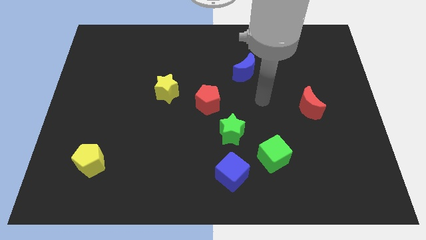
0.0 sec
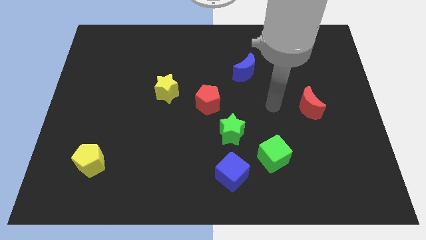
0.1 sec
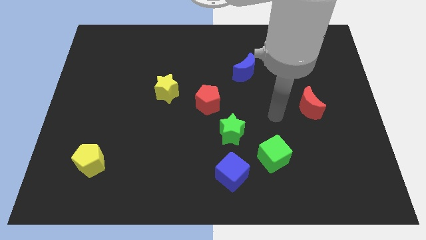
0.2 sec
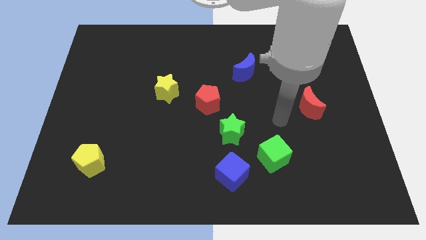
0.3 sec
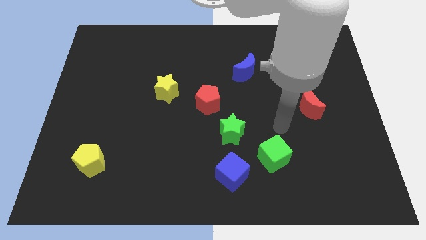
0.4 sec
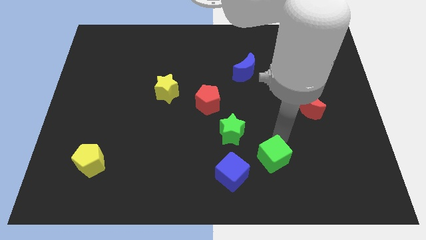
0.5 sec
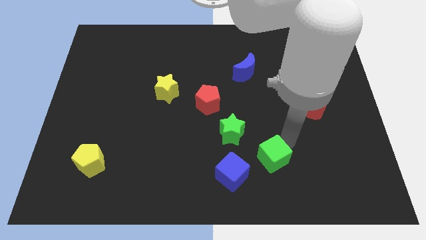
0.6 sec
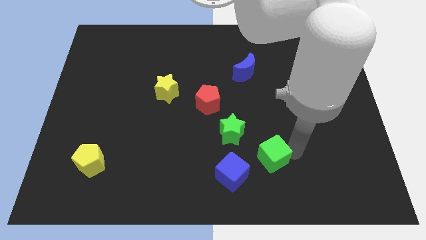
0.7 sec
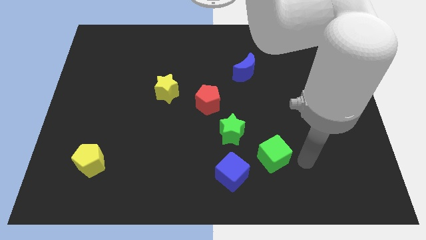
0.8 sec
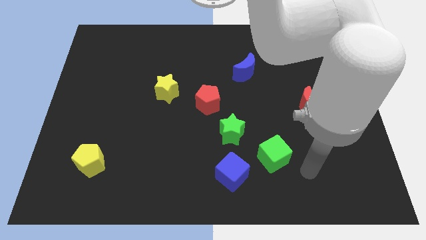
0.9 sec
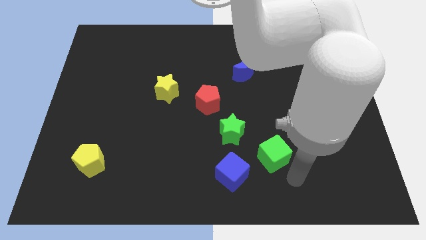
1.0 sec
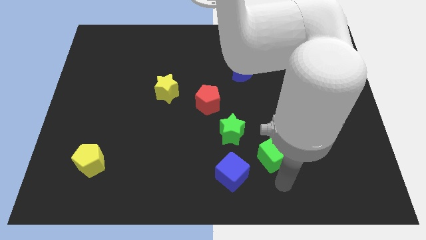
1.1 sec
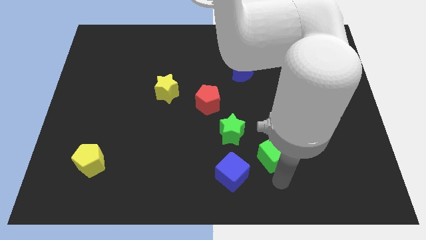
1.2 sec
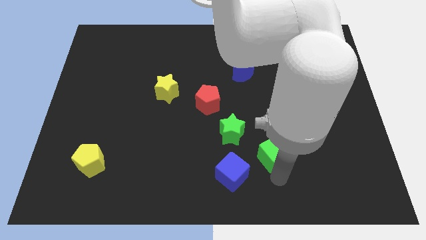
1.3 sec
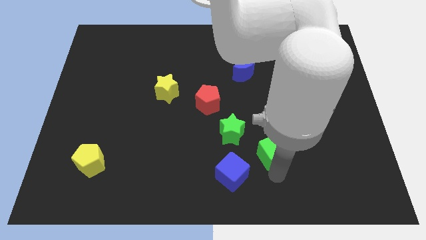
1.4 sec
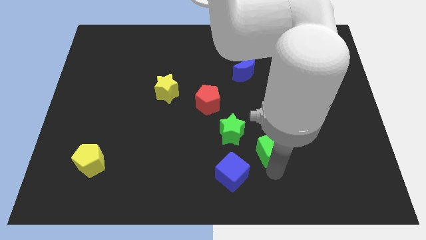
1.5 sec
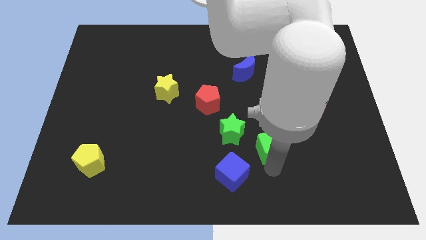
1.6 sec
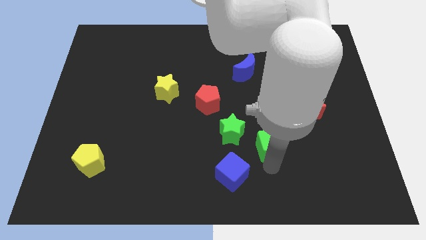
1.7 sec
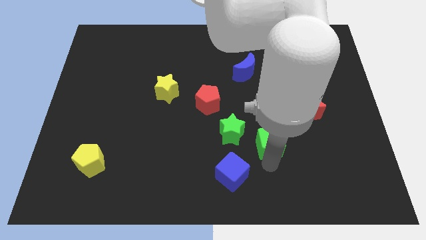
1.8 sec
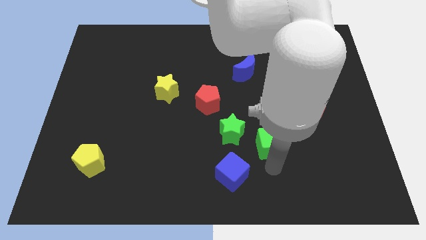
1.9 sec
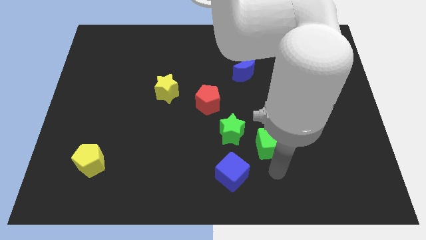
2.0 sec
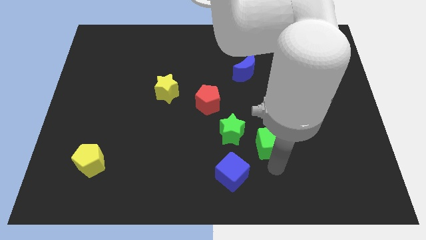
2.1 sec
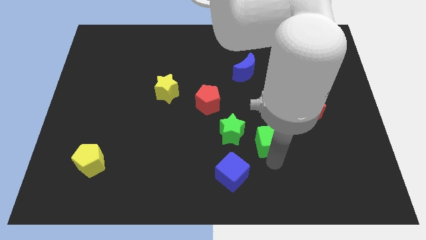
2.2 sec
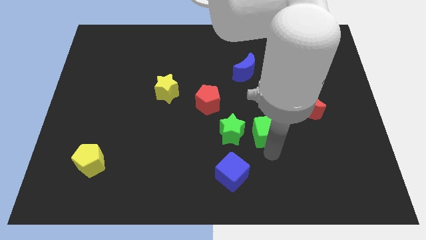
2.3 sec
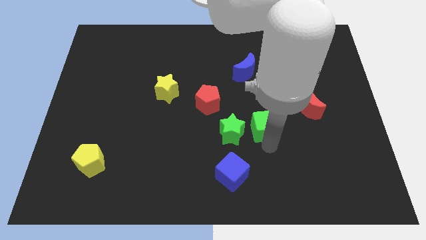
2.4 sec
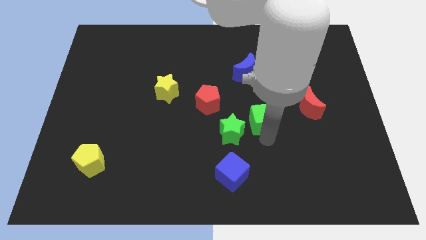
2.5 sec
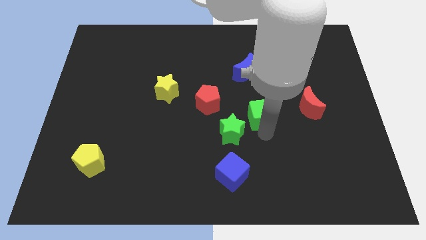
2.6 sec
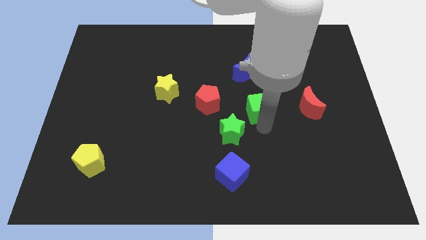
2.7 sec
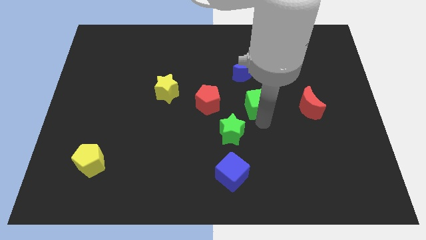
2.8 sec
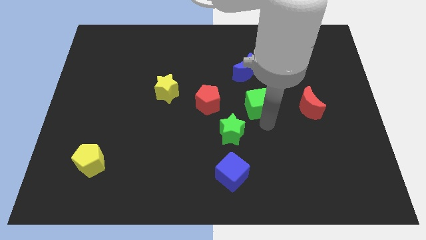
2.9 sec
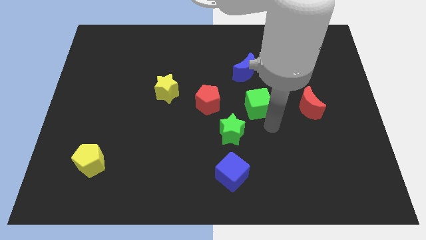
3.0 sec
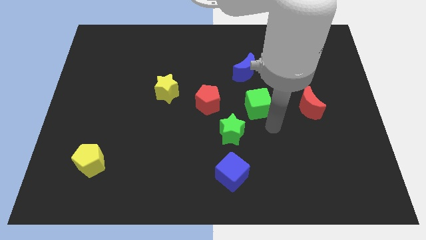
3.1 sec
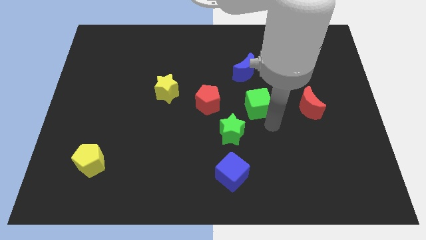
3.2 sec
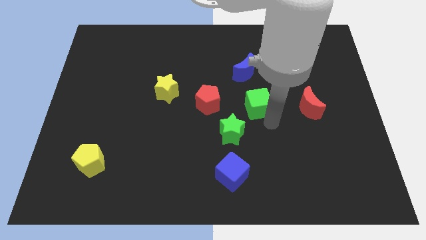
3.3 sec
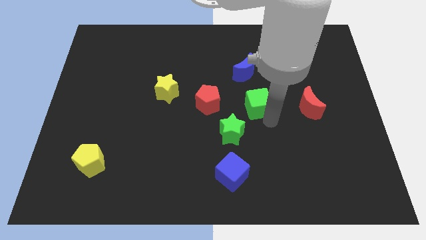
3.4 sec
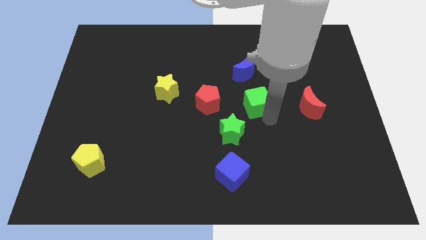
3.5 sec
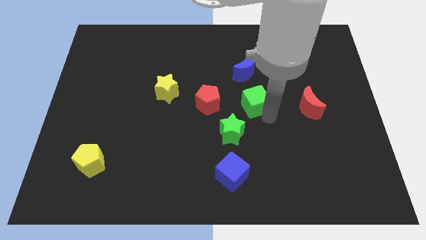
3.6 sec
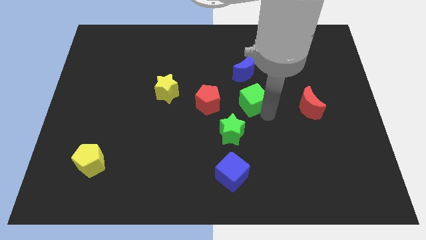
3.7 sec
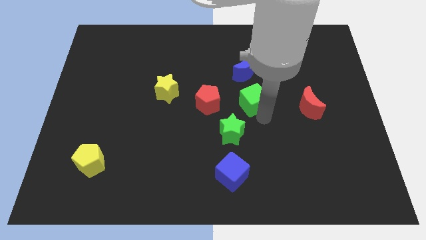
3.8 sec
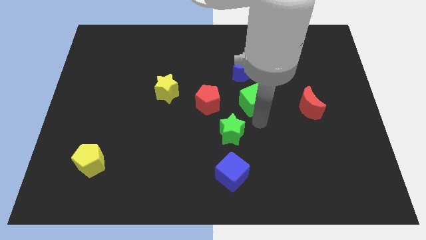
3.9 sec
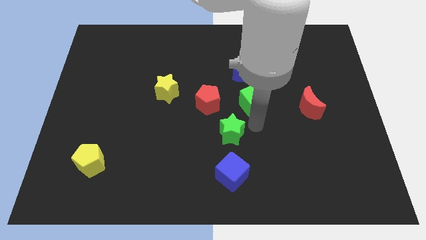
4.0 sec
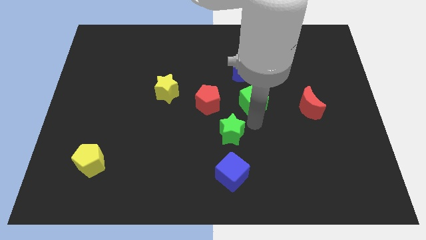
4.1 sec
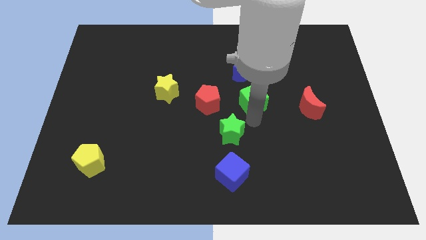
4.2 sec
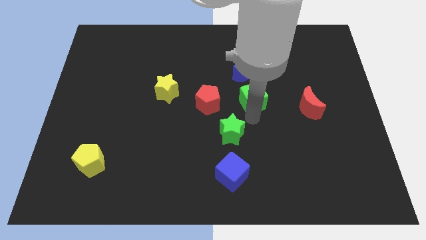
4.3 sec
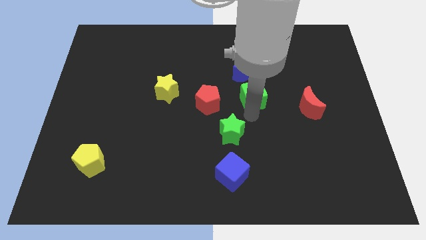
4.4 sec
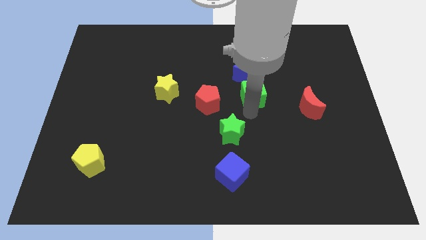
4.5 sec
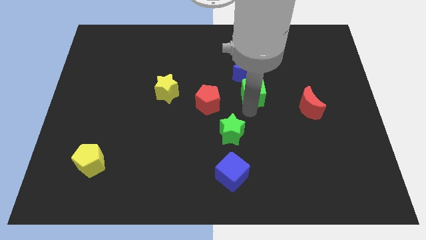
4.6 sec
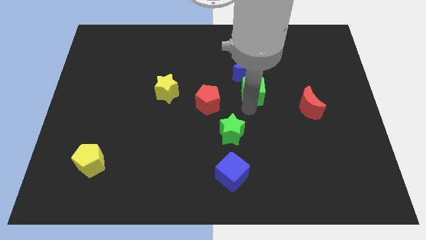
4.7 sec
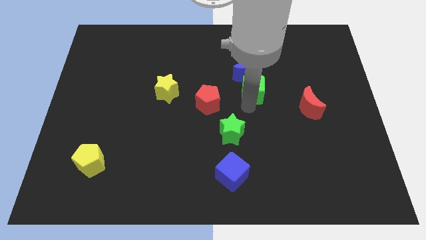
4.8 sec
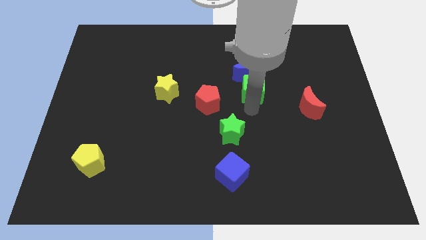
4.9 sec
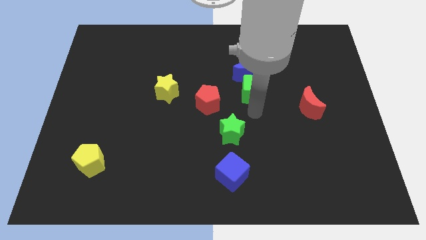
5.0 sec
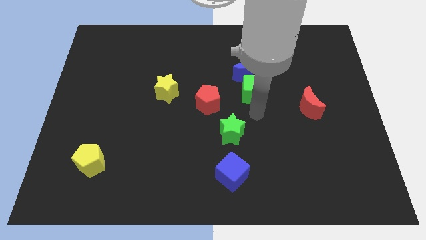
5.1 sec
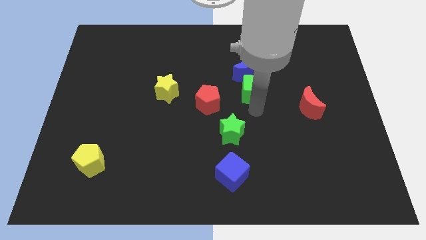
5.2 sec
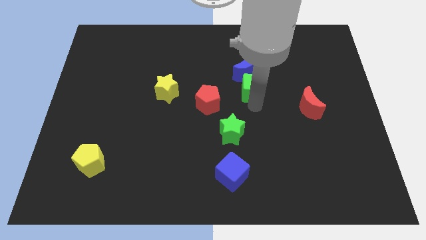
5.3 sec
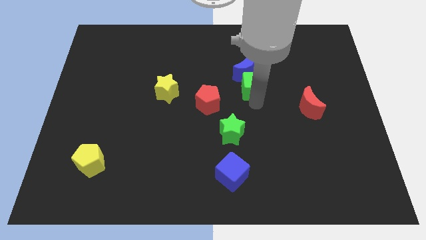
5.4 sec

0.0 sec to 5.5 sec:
put the green cube close to the blue moon

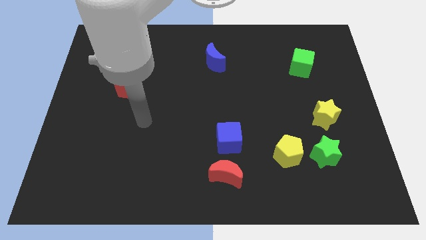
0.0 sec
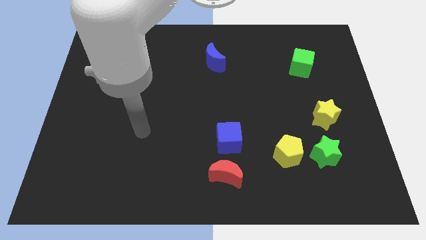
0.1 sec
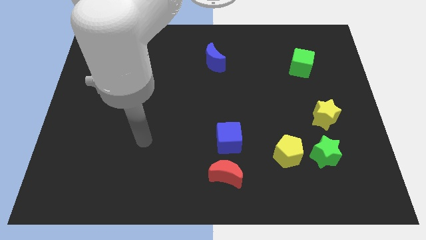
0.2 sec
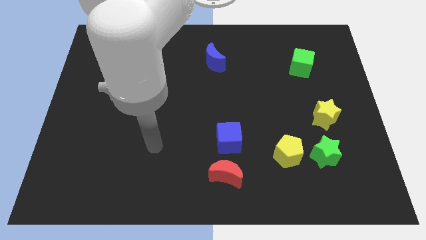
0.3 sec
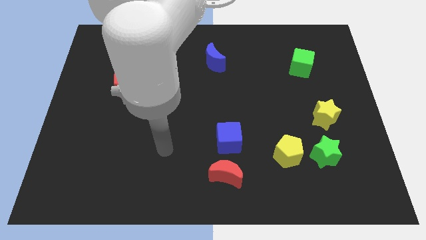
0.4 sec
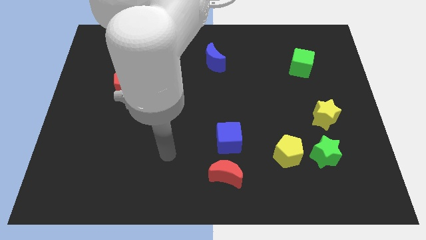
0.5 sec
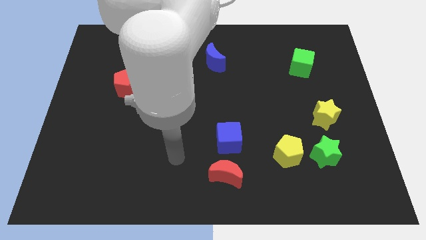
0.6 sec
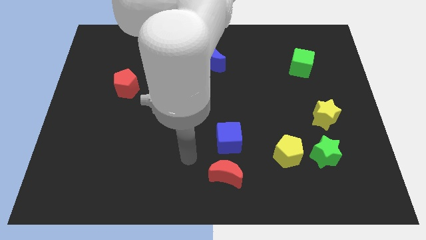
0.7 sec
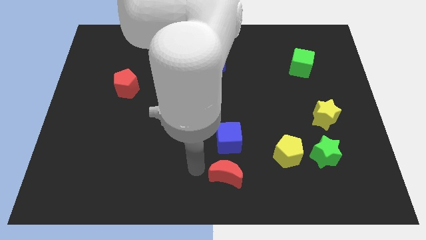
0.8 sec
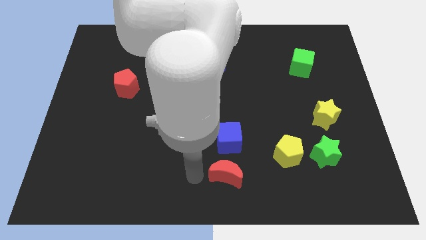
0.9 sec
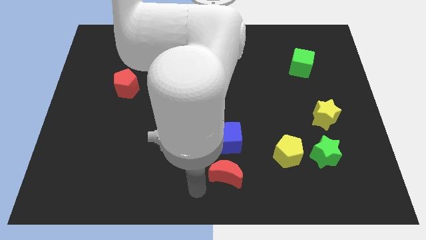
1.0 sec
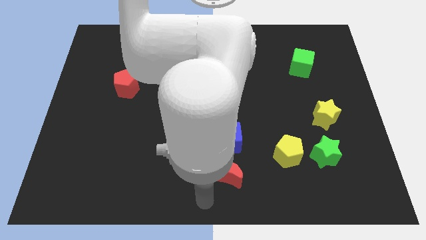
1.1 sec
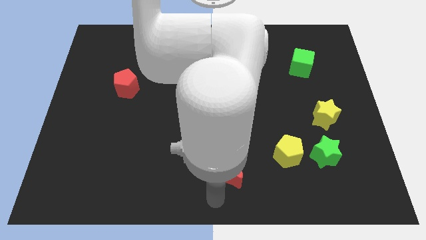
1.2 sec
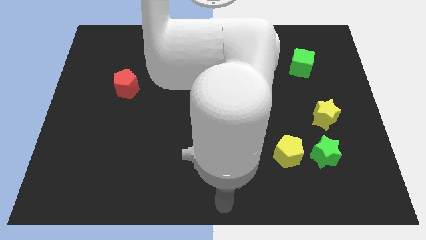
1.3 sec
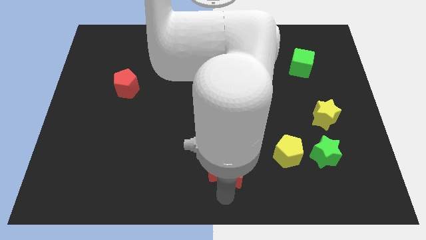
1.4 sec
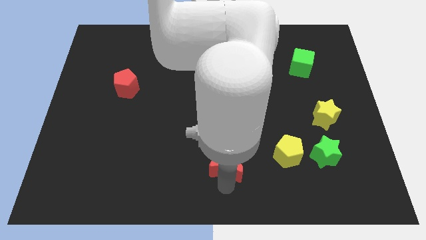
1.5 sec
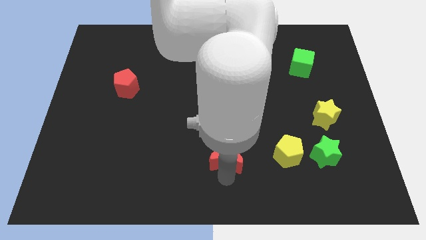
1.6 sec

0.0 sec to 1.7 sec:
move the red moon close to the blue cube
